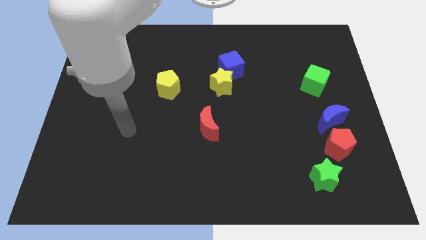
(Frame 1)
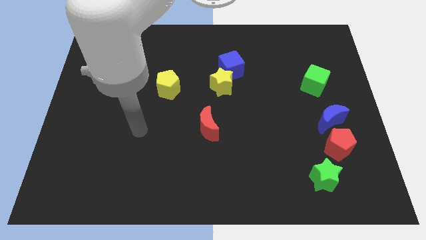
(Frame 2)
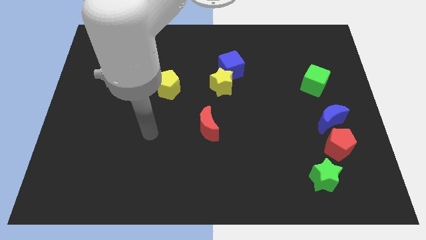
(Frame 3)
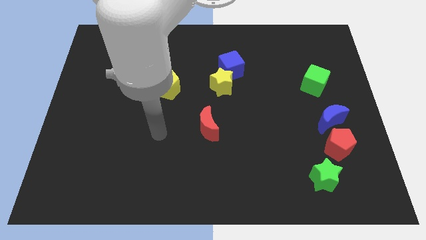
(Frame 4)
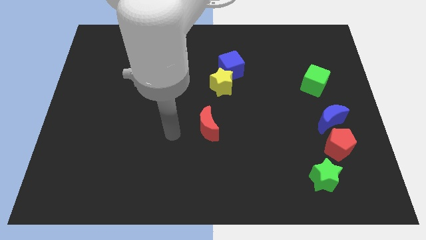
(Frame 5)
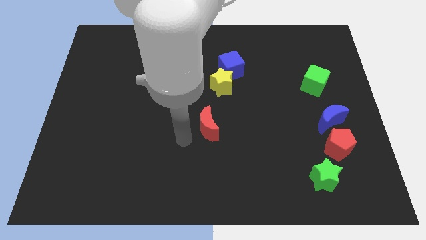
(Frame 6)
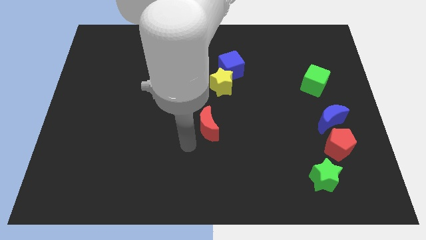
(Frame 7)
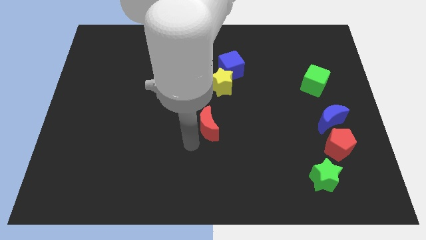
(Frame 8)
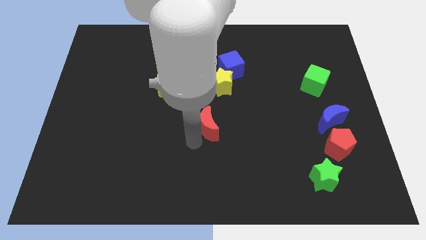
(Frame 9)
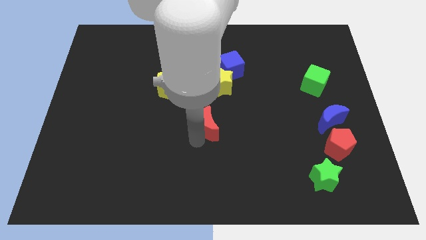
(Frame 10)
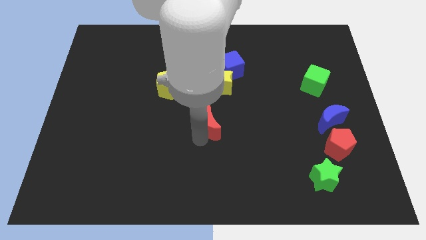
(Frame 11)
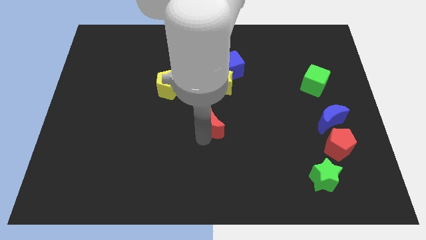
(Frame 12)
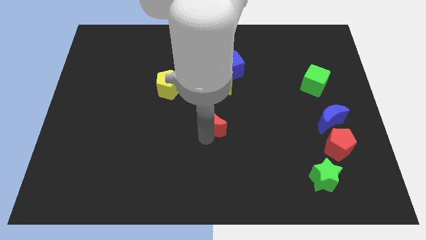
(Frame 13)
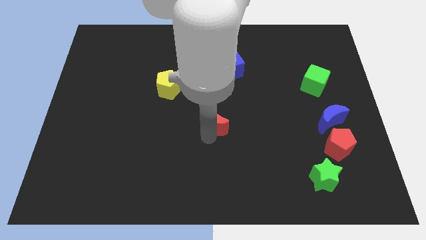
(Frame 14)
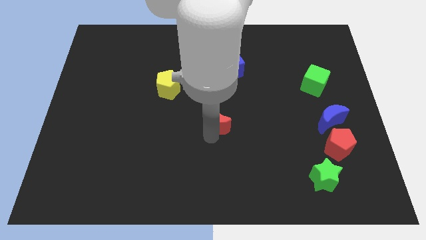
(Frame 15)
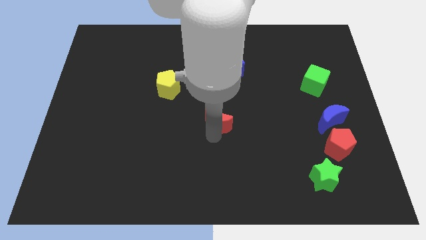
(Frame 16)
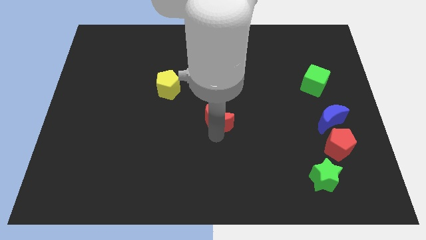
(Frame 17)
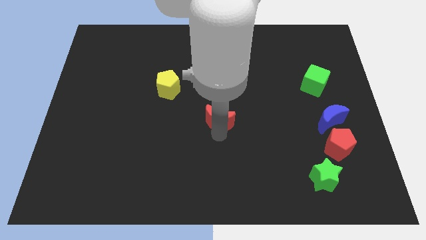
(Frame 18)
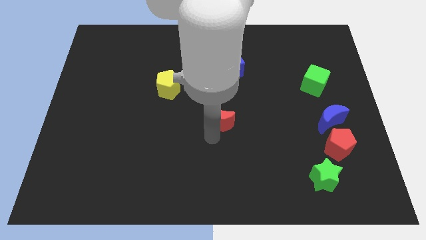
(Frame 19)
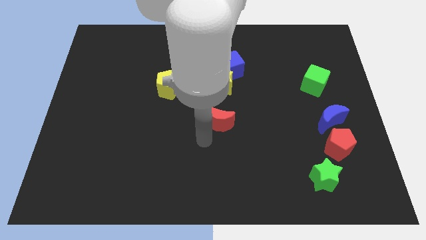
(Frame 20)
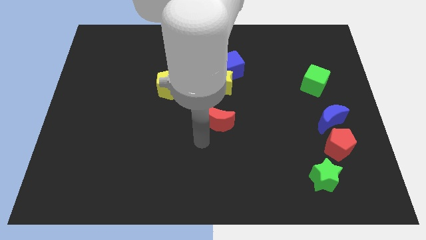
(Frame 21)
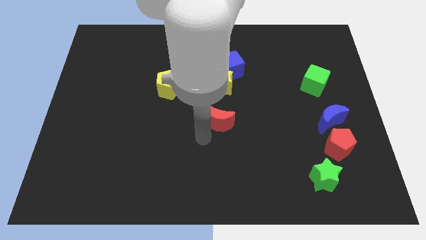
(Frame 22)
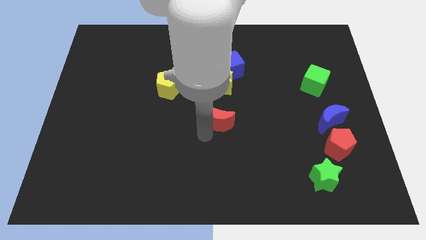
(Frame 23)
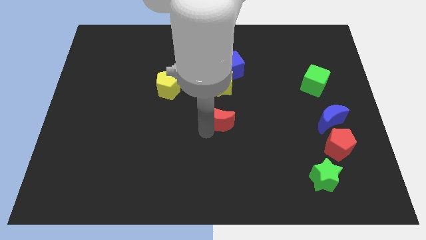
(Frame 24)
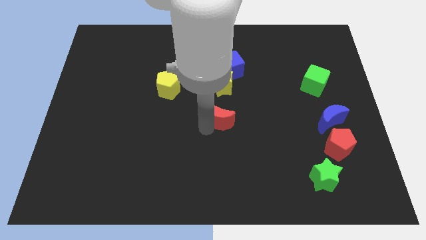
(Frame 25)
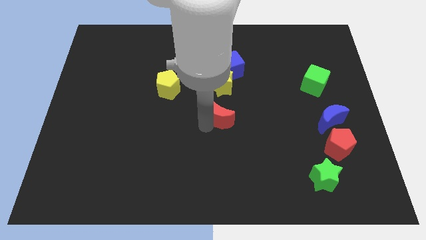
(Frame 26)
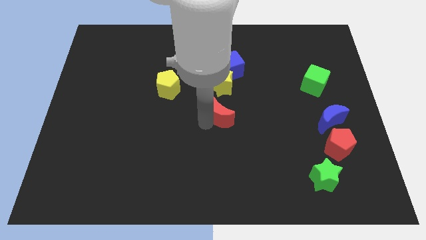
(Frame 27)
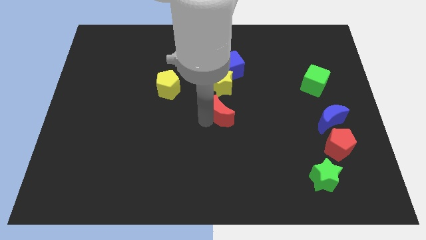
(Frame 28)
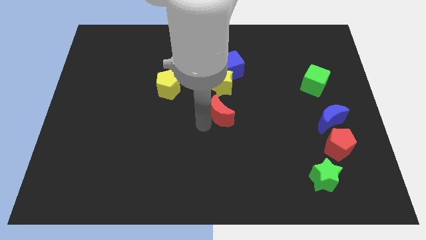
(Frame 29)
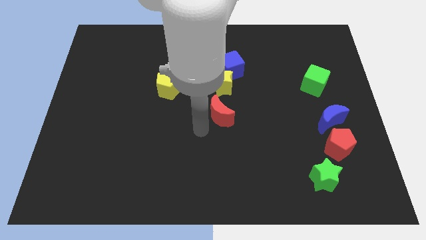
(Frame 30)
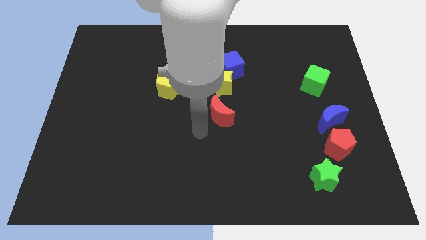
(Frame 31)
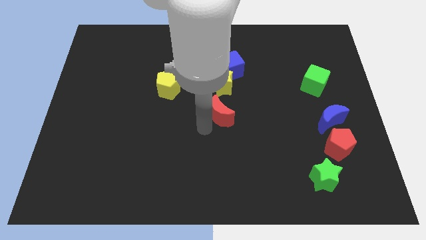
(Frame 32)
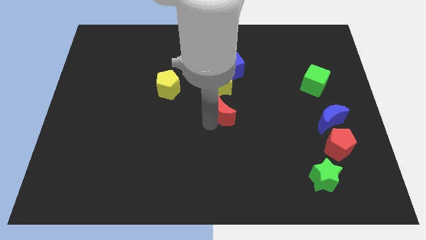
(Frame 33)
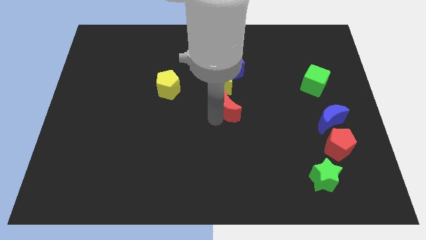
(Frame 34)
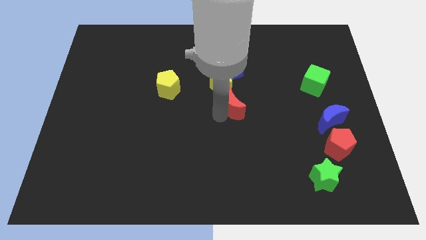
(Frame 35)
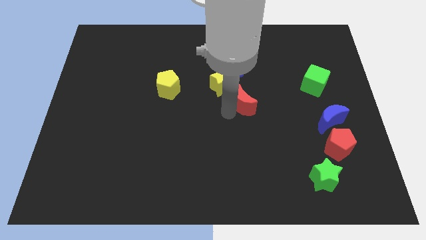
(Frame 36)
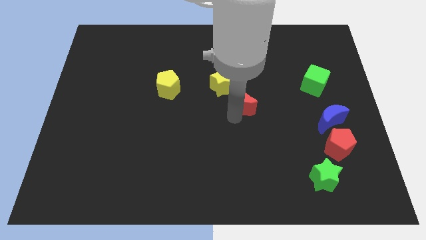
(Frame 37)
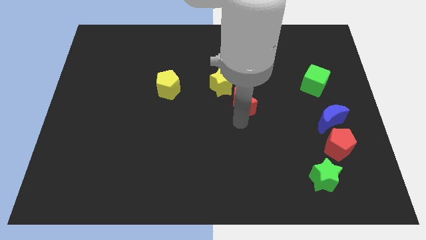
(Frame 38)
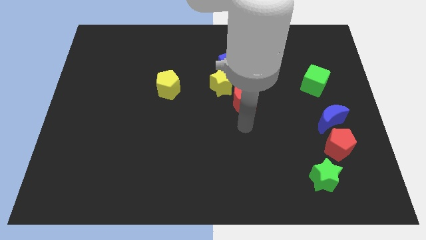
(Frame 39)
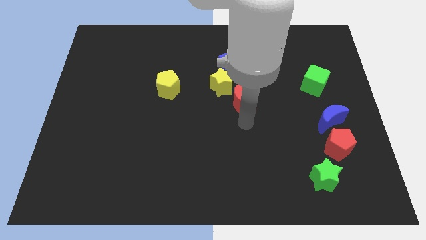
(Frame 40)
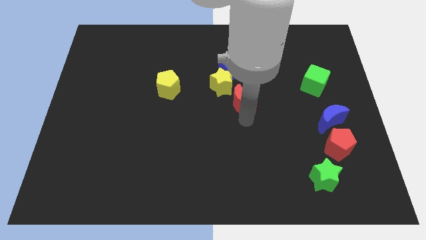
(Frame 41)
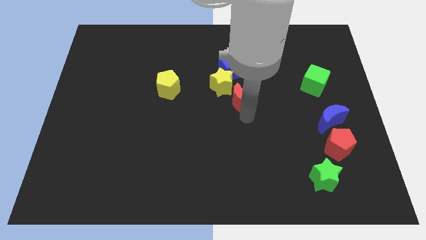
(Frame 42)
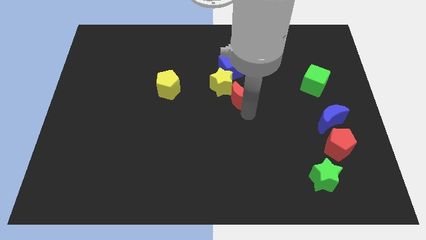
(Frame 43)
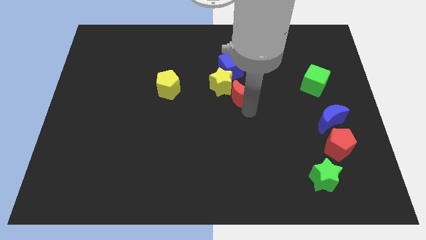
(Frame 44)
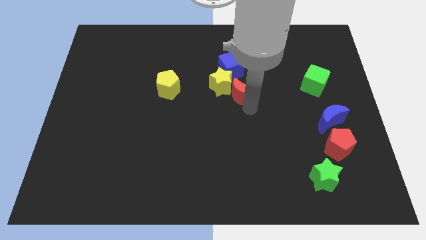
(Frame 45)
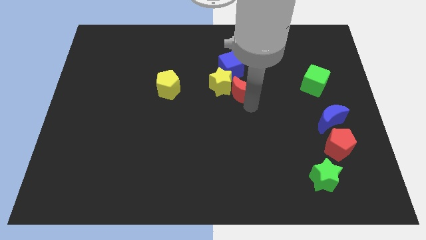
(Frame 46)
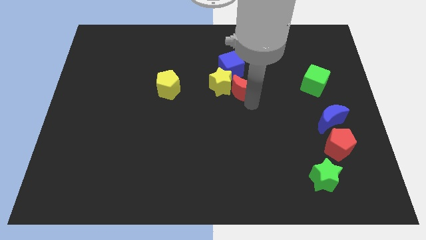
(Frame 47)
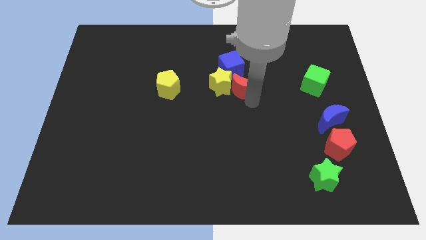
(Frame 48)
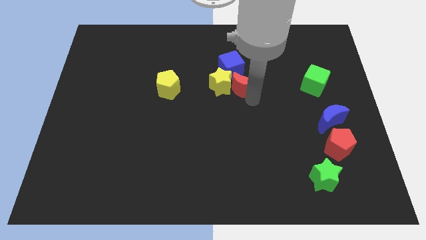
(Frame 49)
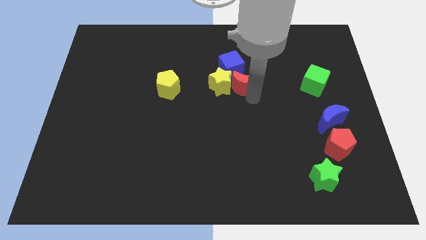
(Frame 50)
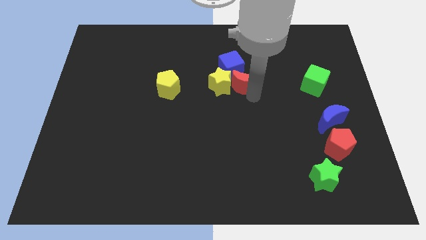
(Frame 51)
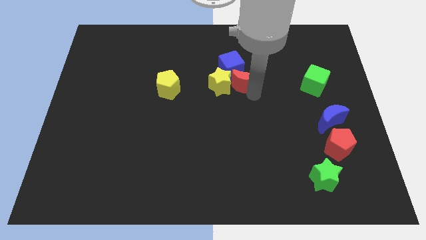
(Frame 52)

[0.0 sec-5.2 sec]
move the red moon close to the blue cube

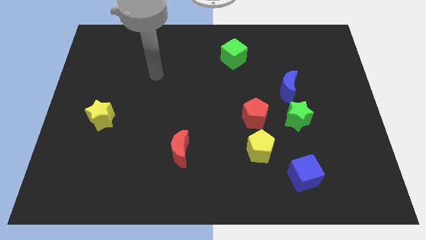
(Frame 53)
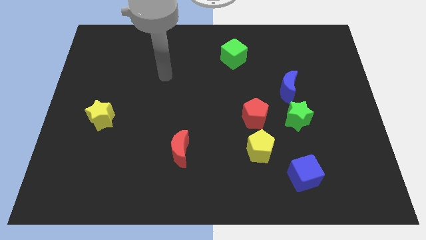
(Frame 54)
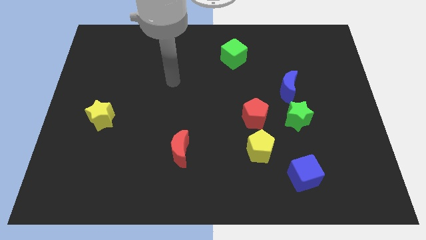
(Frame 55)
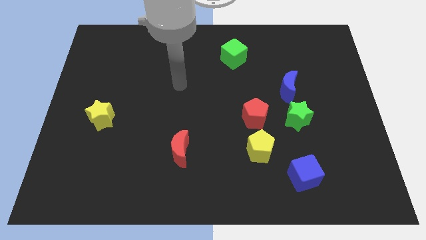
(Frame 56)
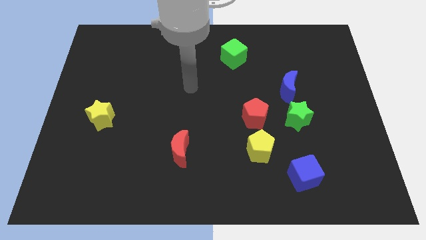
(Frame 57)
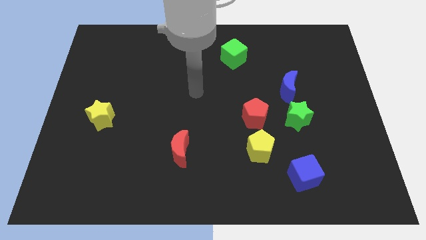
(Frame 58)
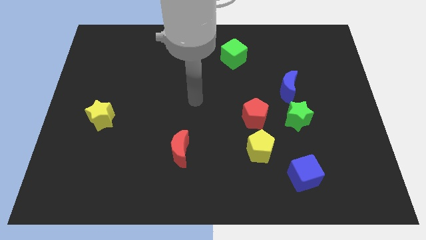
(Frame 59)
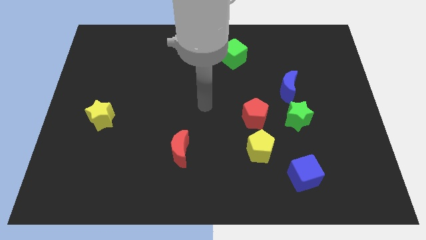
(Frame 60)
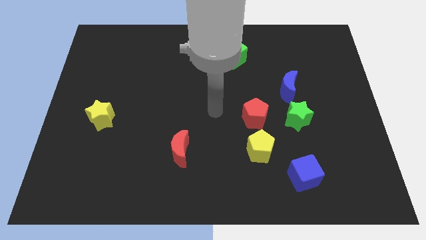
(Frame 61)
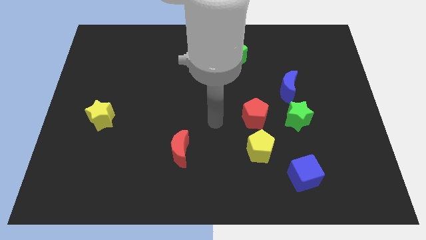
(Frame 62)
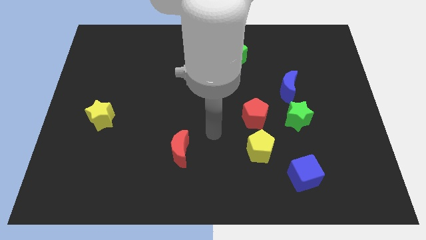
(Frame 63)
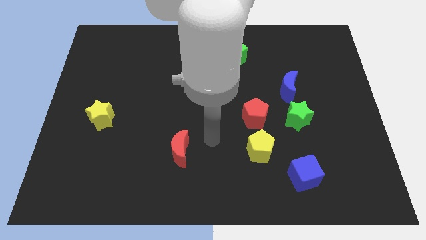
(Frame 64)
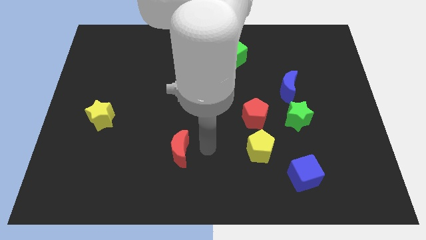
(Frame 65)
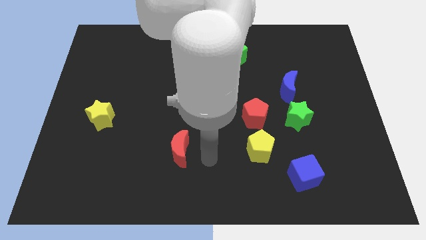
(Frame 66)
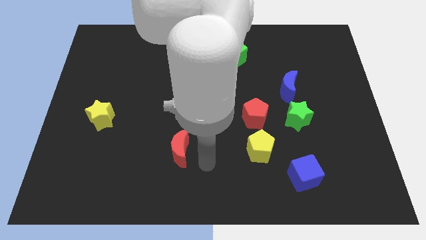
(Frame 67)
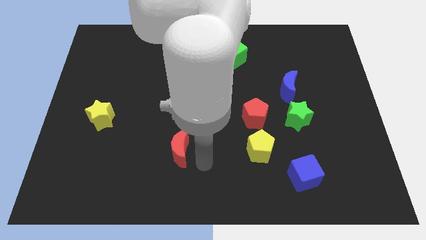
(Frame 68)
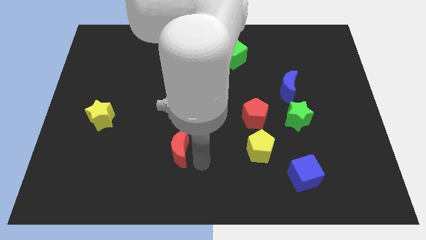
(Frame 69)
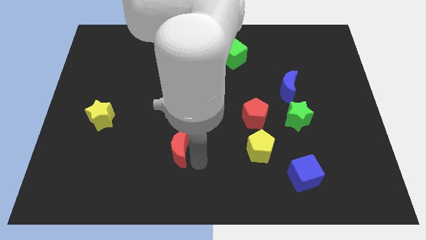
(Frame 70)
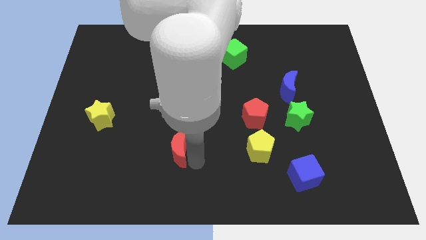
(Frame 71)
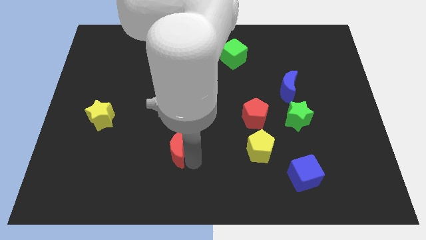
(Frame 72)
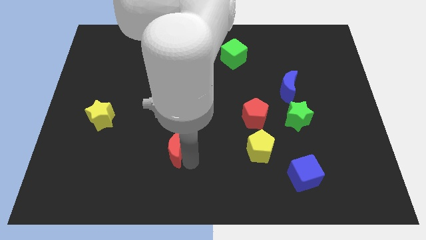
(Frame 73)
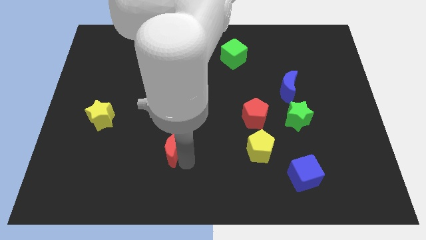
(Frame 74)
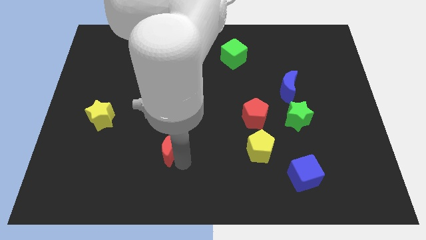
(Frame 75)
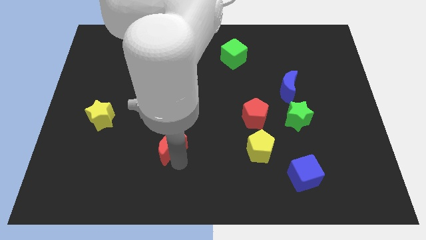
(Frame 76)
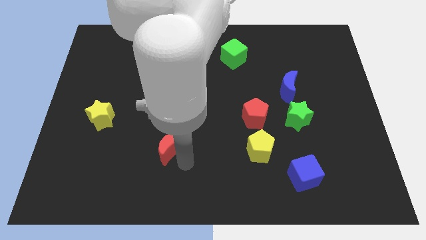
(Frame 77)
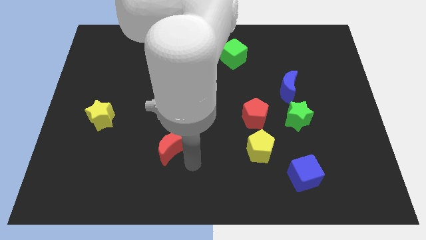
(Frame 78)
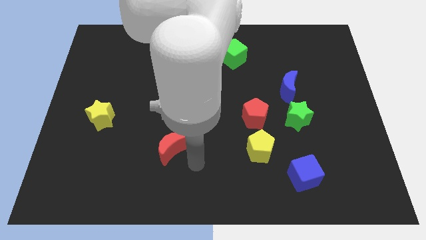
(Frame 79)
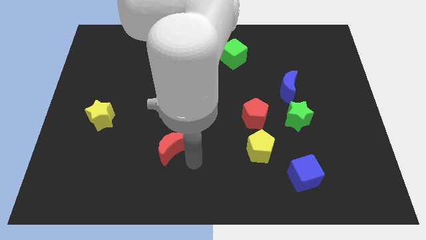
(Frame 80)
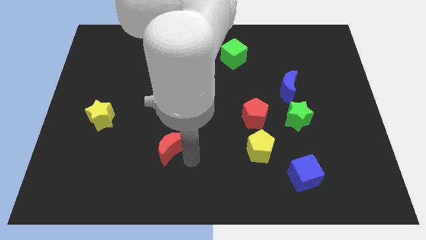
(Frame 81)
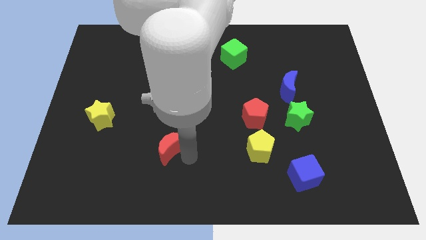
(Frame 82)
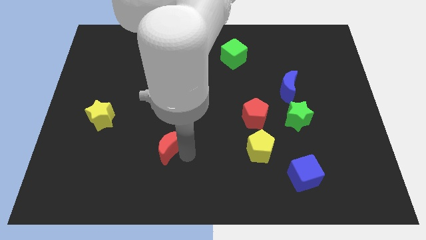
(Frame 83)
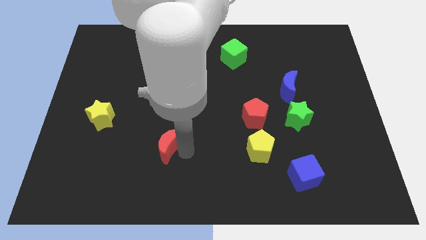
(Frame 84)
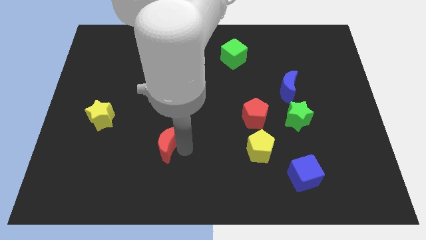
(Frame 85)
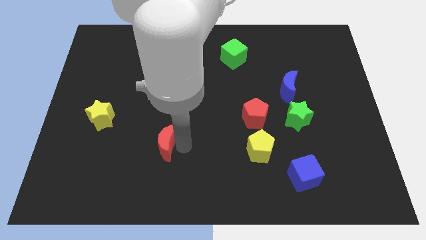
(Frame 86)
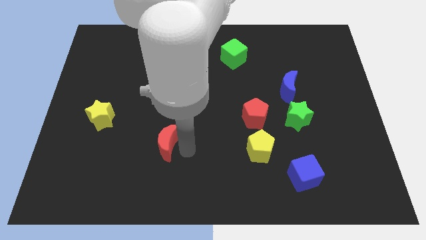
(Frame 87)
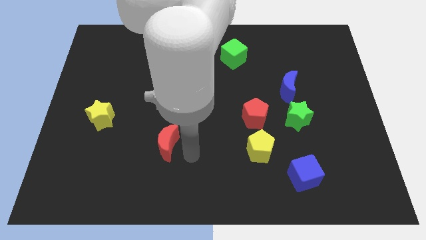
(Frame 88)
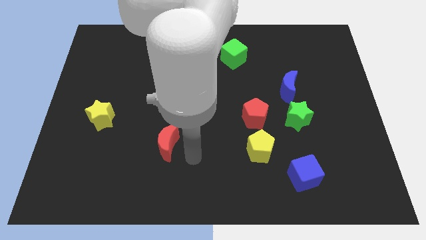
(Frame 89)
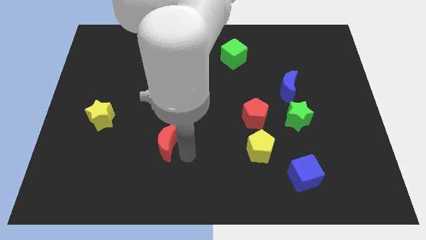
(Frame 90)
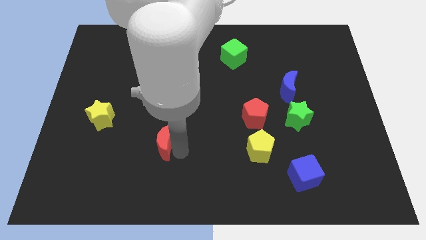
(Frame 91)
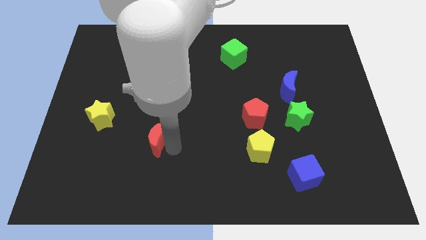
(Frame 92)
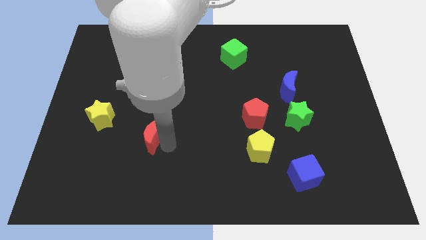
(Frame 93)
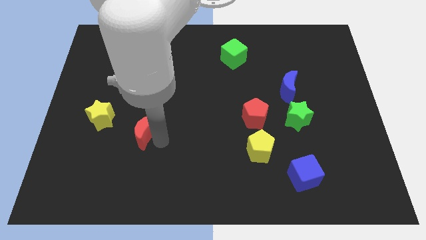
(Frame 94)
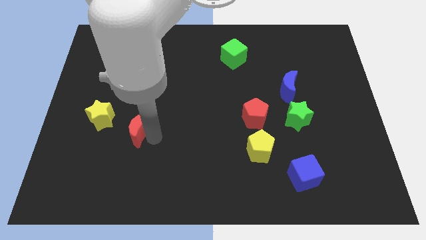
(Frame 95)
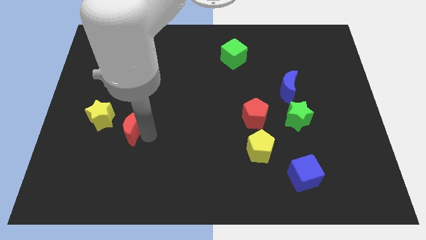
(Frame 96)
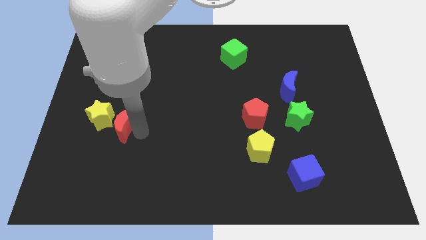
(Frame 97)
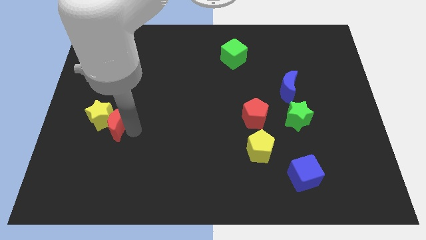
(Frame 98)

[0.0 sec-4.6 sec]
push the red moon next to the yellow star
